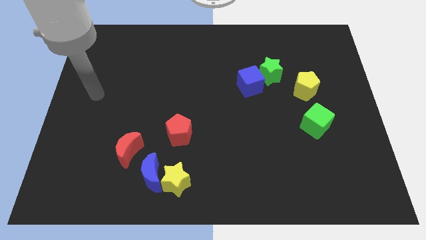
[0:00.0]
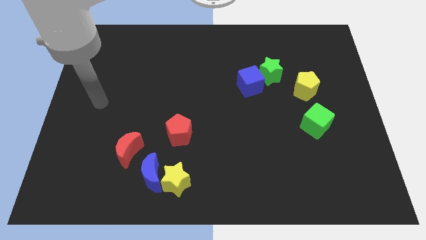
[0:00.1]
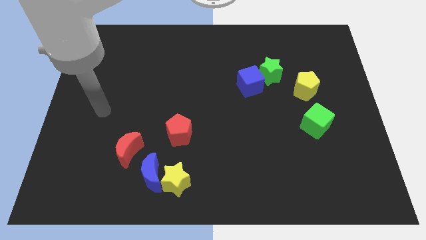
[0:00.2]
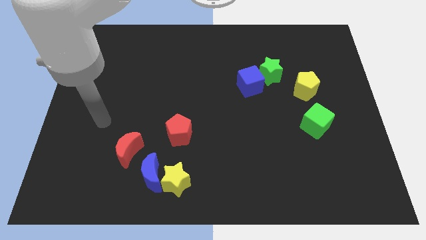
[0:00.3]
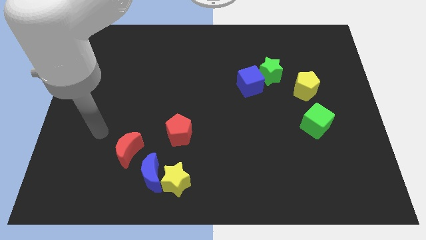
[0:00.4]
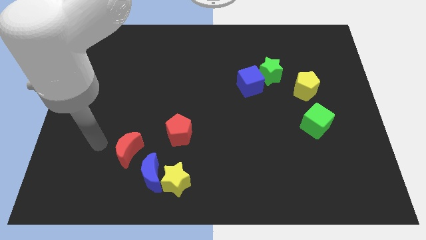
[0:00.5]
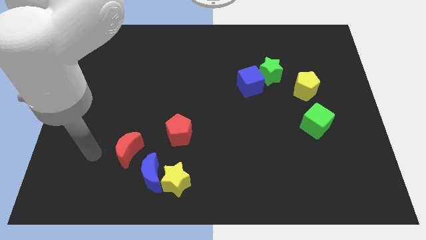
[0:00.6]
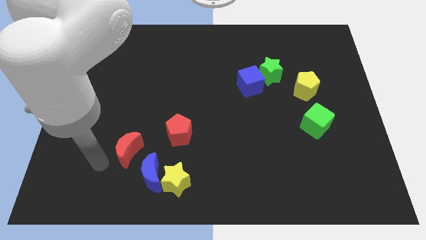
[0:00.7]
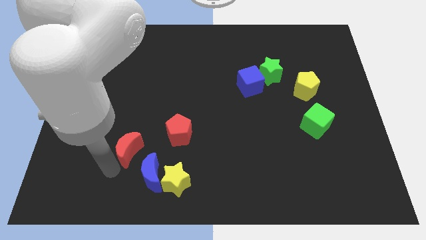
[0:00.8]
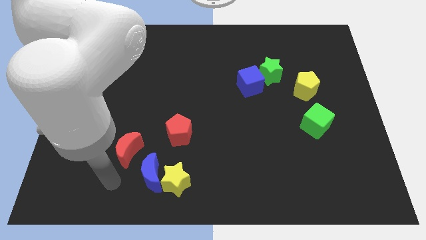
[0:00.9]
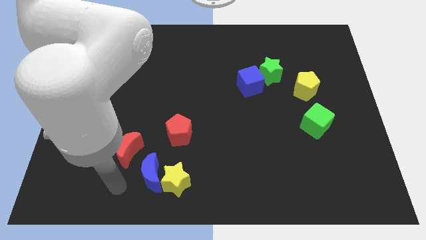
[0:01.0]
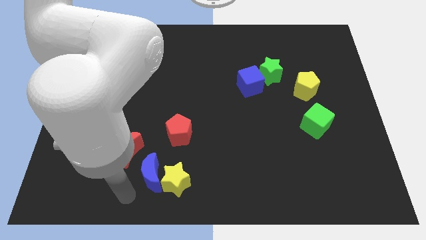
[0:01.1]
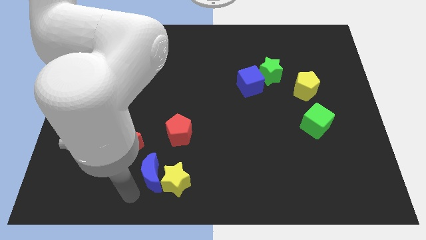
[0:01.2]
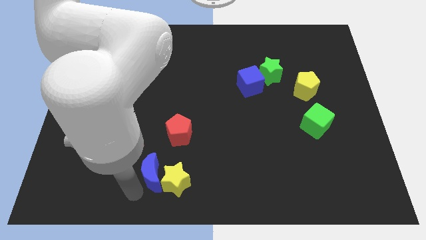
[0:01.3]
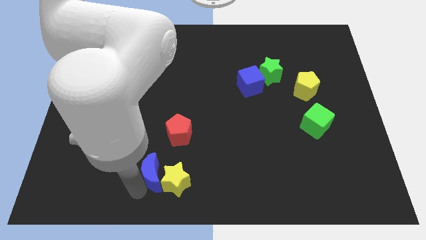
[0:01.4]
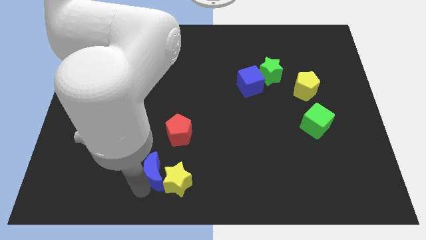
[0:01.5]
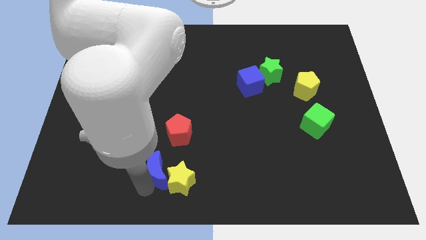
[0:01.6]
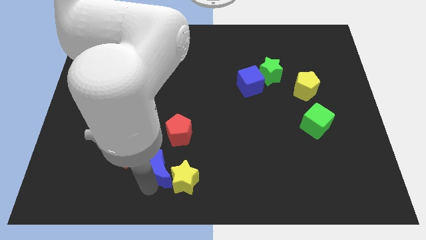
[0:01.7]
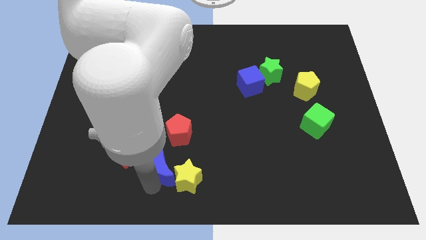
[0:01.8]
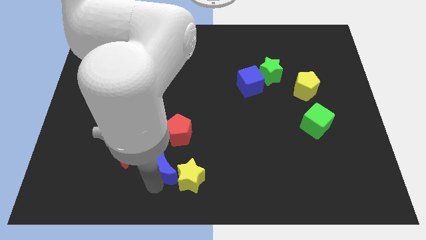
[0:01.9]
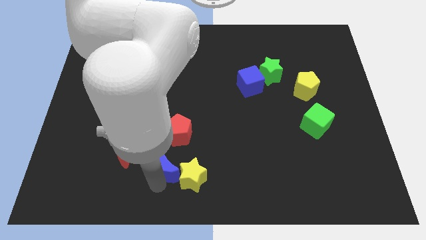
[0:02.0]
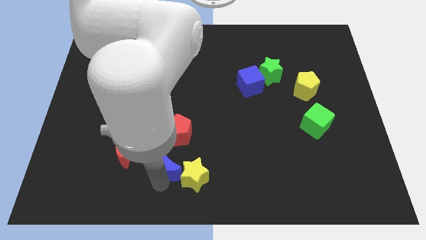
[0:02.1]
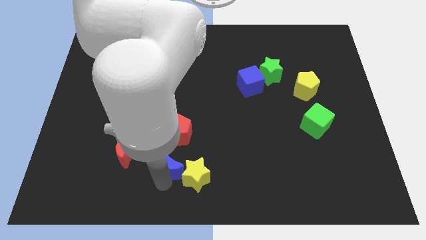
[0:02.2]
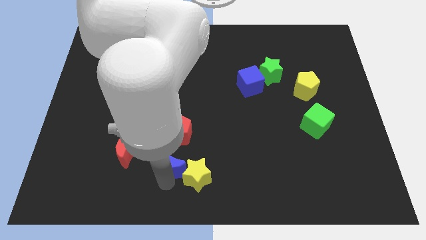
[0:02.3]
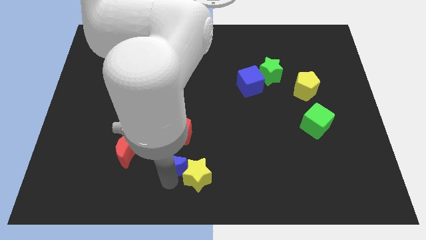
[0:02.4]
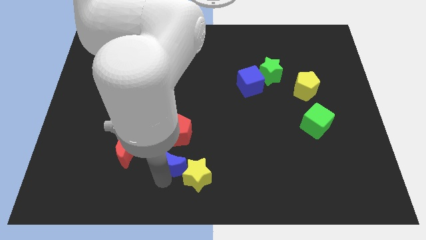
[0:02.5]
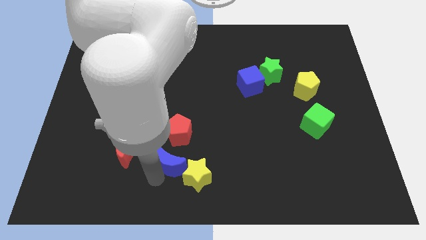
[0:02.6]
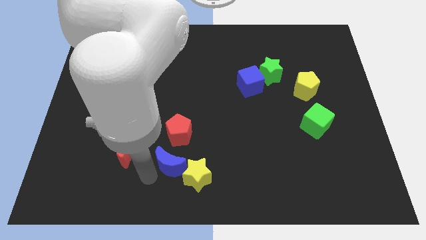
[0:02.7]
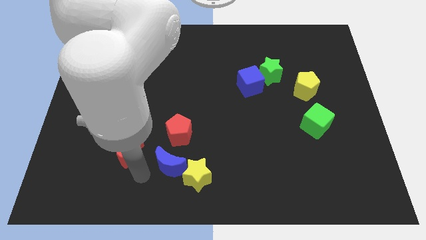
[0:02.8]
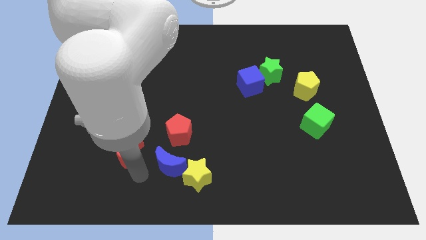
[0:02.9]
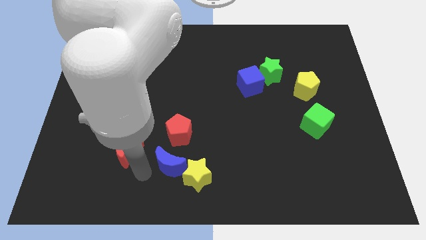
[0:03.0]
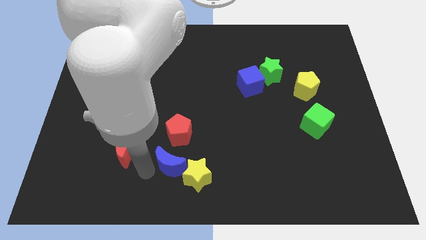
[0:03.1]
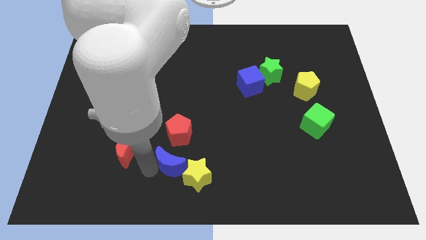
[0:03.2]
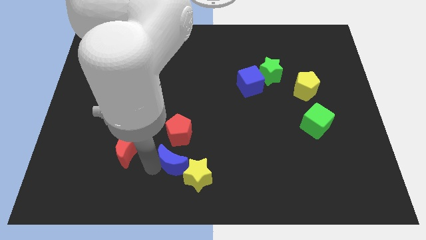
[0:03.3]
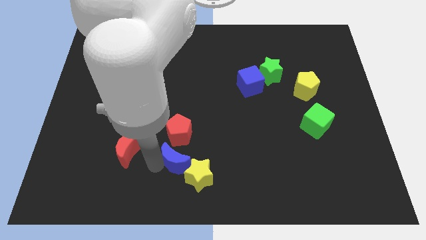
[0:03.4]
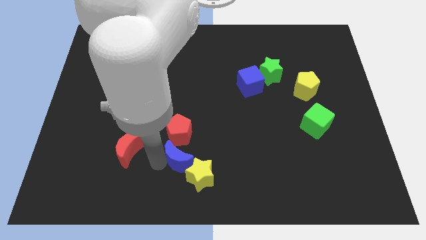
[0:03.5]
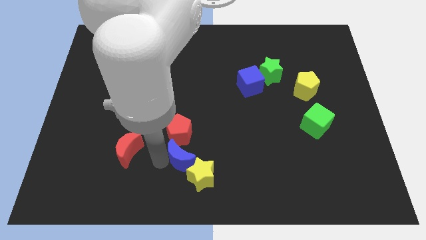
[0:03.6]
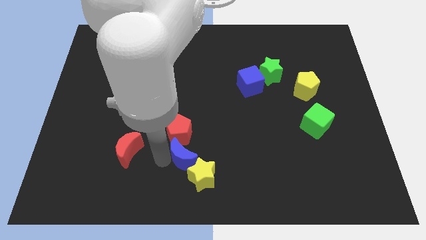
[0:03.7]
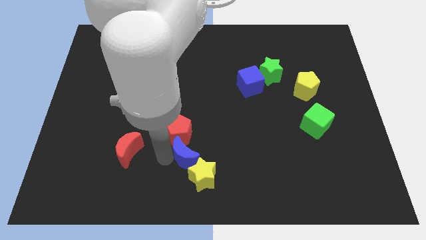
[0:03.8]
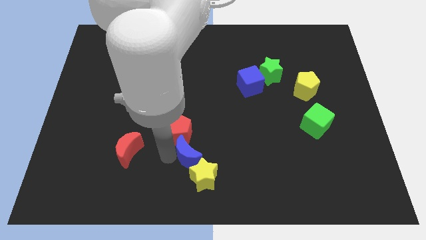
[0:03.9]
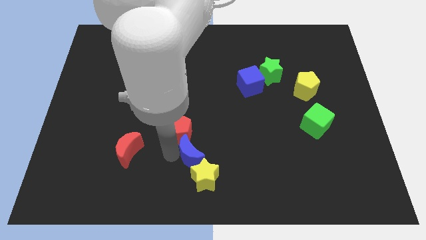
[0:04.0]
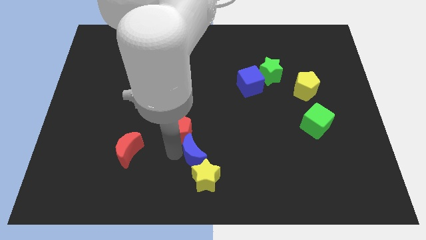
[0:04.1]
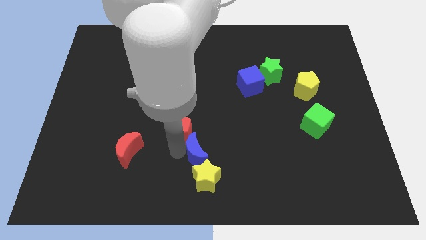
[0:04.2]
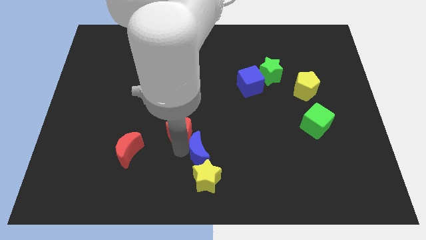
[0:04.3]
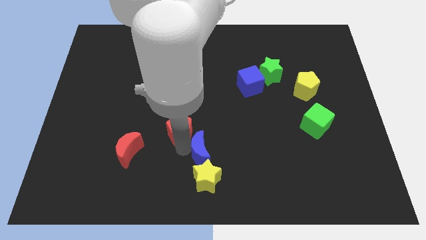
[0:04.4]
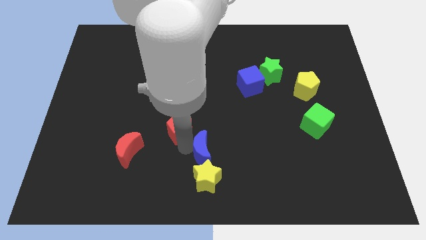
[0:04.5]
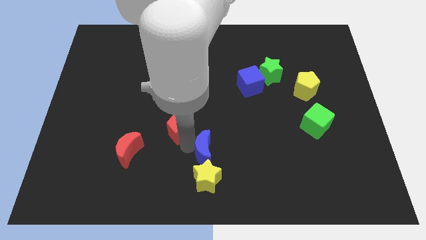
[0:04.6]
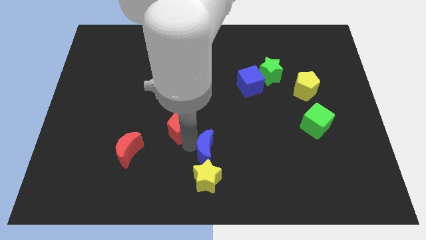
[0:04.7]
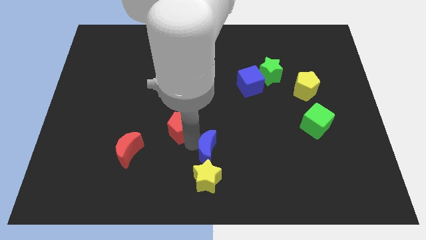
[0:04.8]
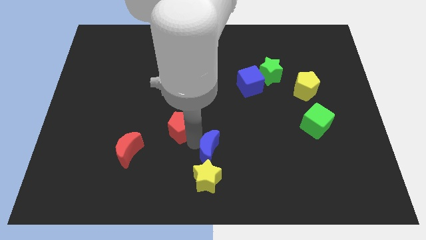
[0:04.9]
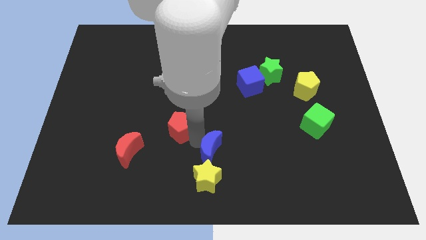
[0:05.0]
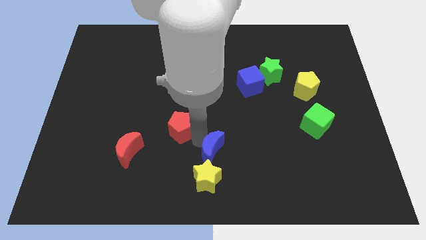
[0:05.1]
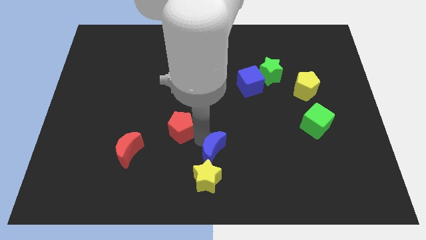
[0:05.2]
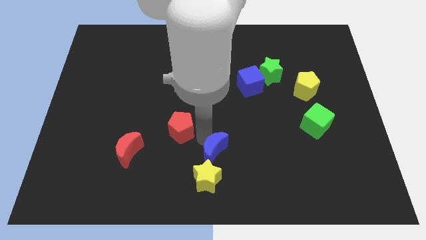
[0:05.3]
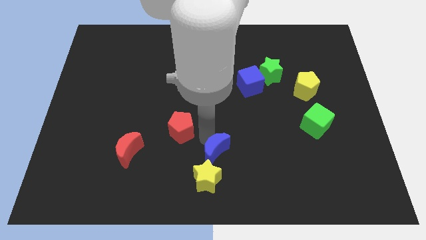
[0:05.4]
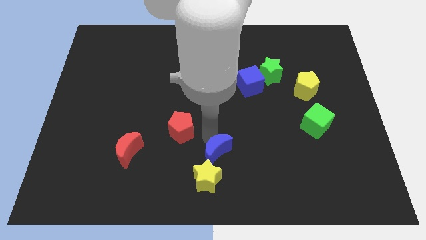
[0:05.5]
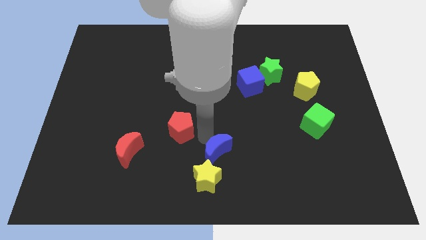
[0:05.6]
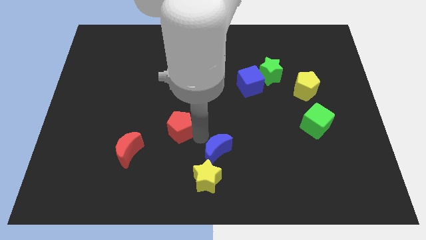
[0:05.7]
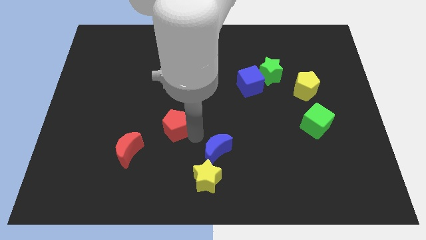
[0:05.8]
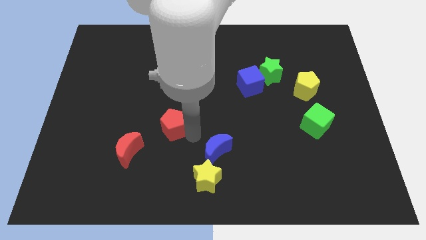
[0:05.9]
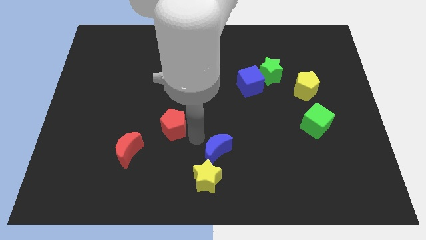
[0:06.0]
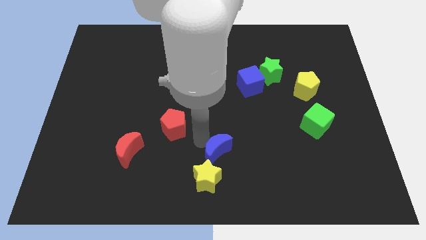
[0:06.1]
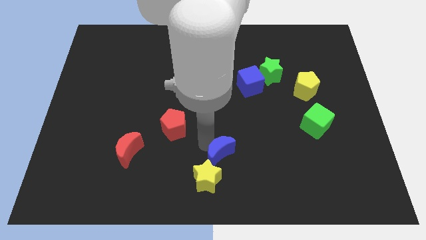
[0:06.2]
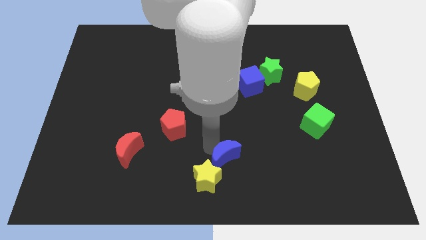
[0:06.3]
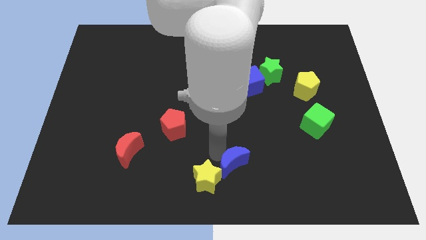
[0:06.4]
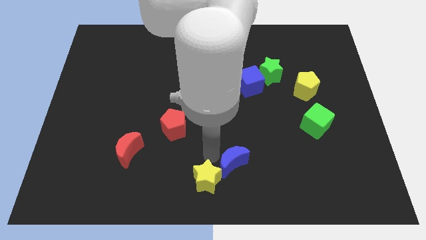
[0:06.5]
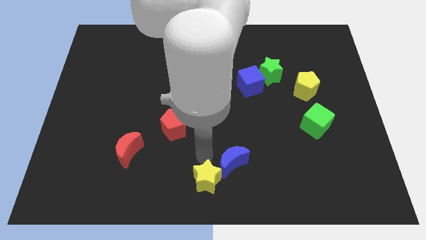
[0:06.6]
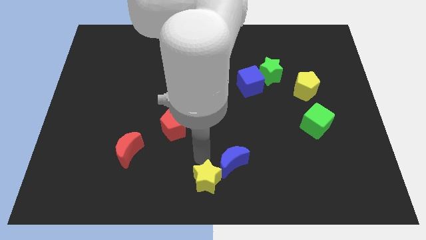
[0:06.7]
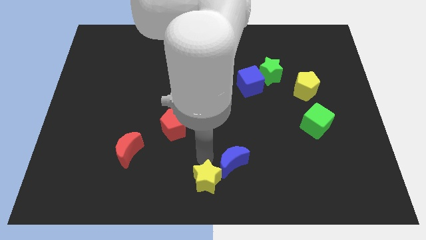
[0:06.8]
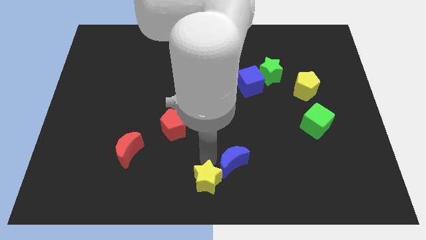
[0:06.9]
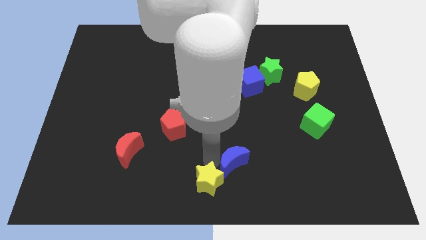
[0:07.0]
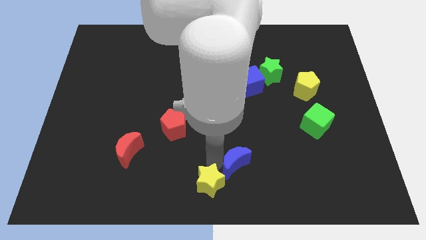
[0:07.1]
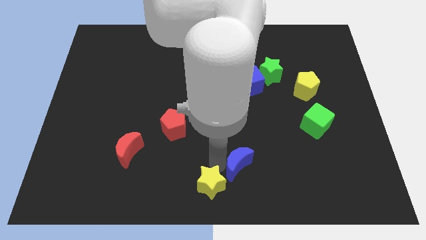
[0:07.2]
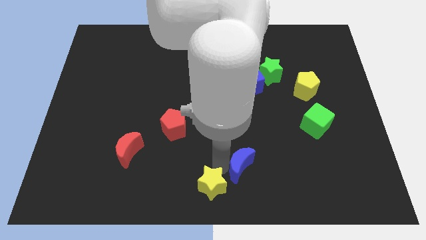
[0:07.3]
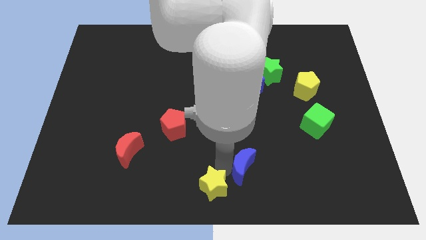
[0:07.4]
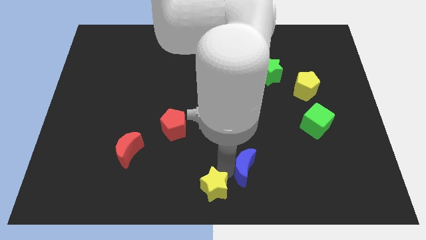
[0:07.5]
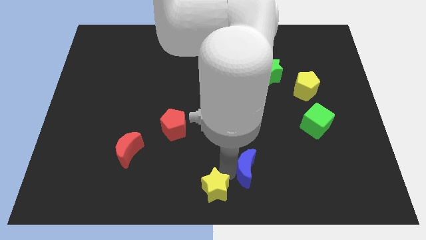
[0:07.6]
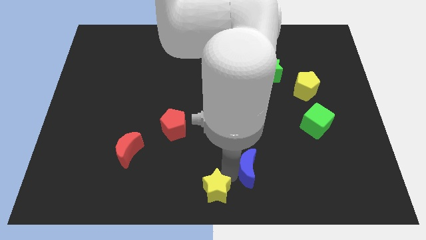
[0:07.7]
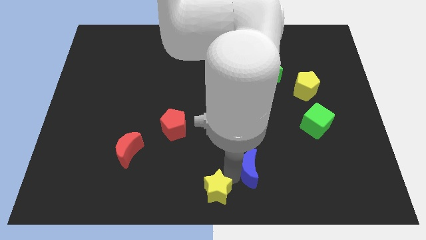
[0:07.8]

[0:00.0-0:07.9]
push the blue moon right

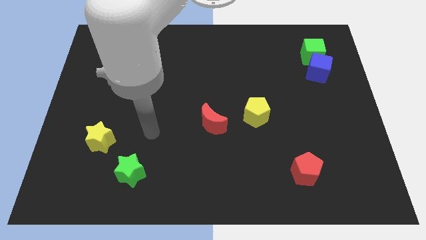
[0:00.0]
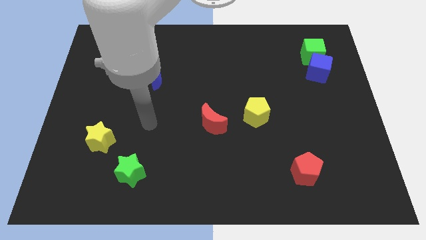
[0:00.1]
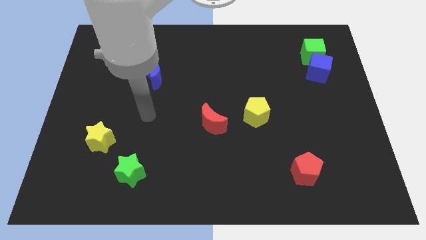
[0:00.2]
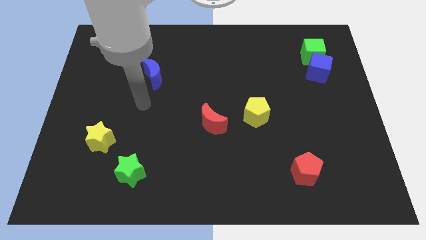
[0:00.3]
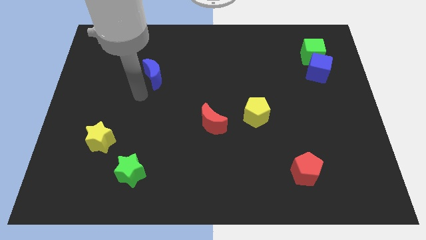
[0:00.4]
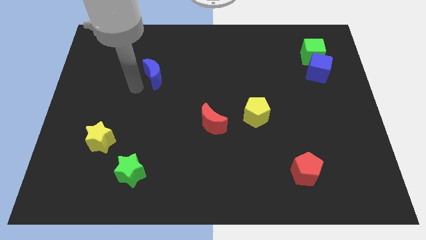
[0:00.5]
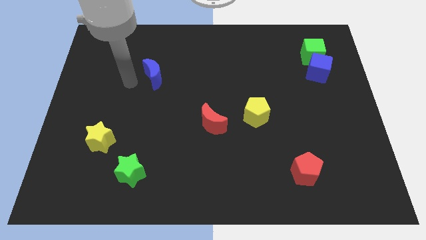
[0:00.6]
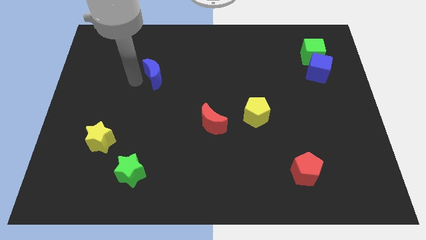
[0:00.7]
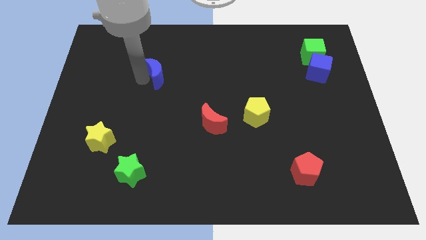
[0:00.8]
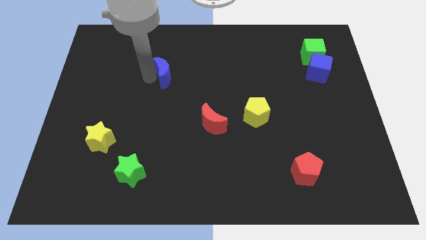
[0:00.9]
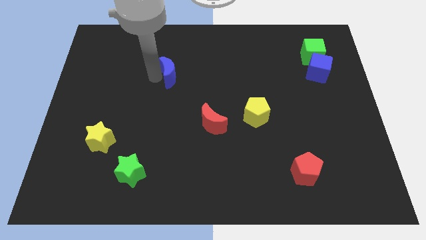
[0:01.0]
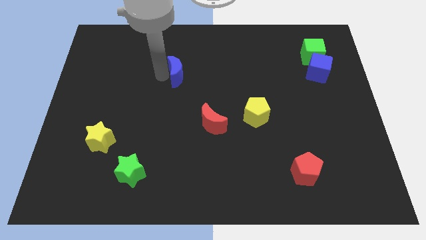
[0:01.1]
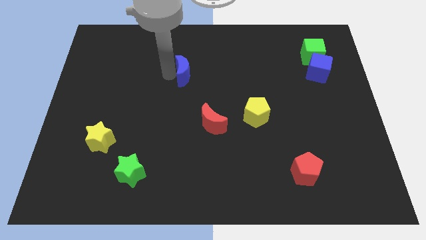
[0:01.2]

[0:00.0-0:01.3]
slightly move the blue moon to the right
